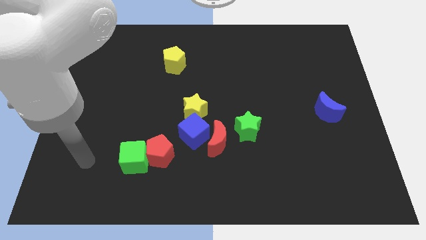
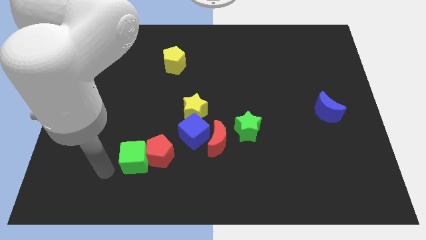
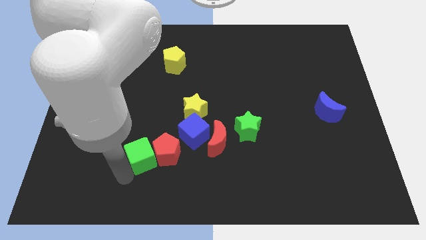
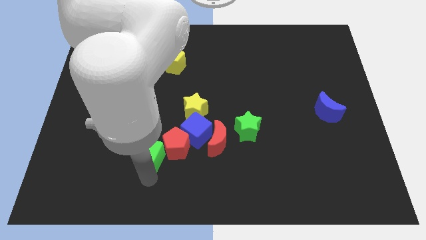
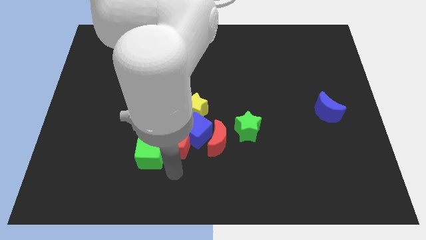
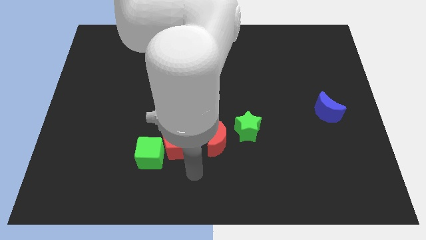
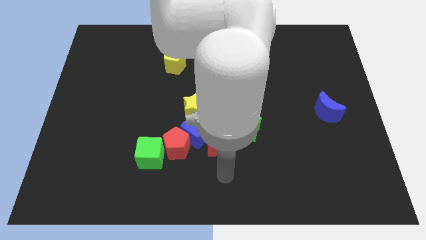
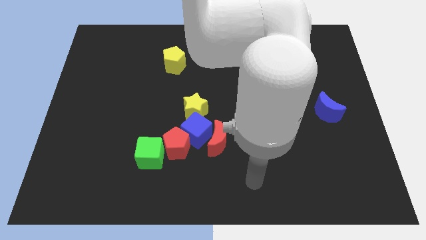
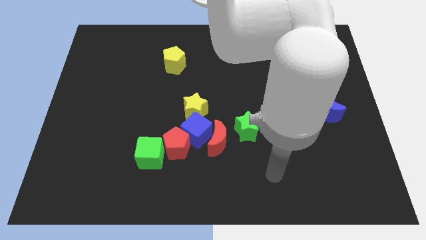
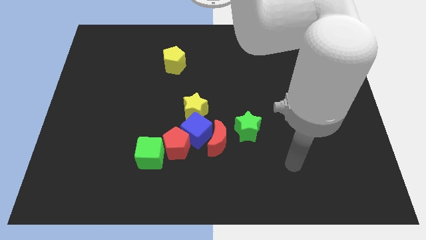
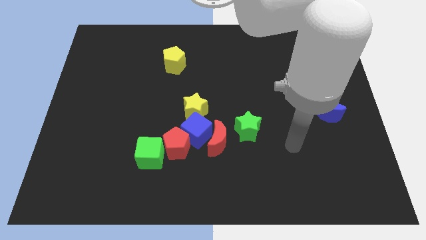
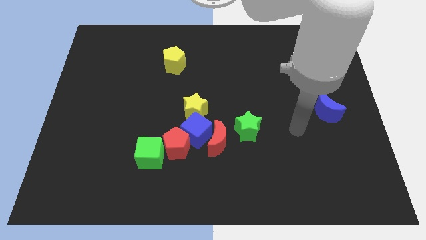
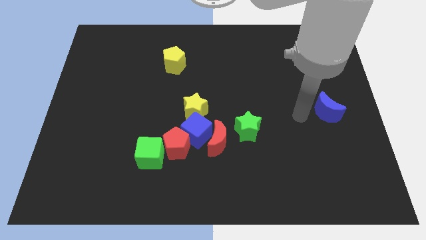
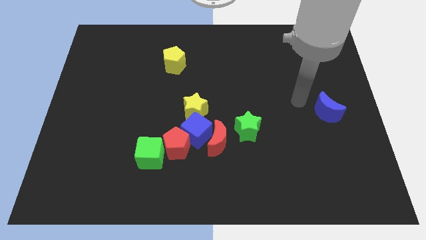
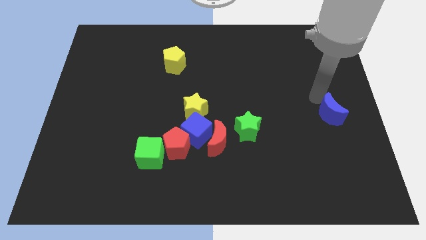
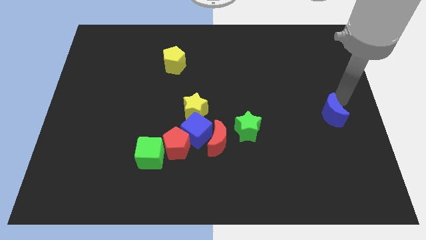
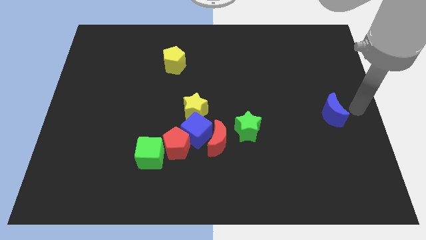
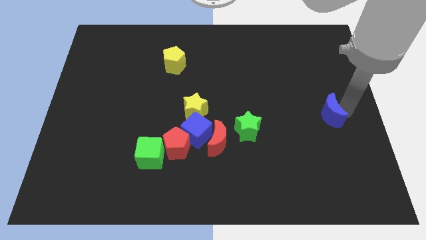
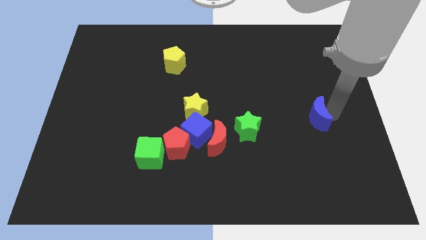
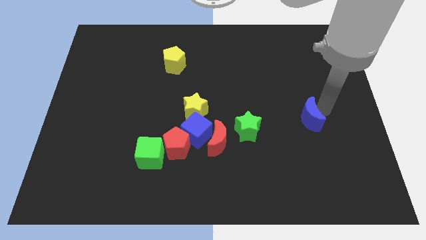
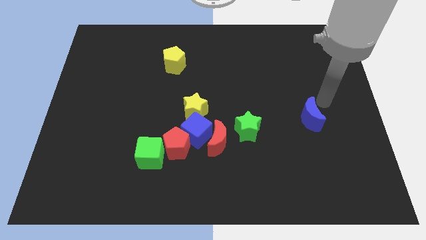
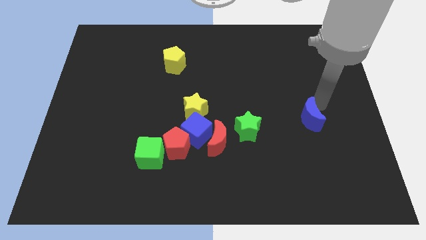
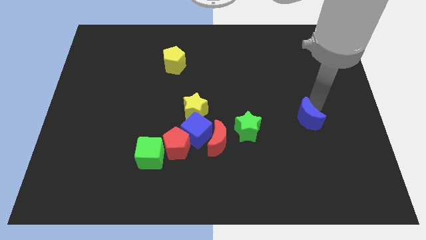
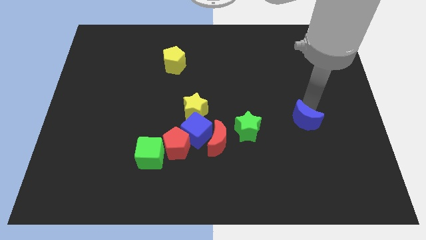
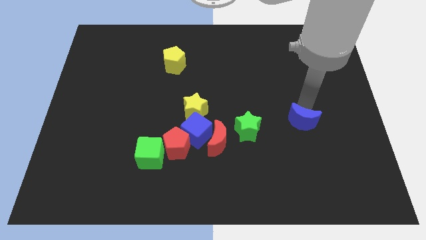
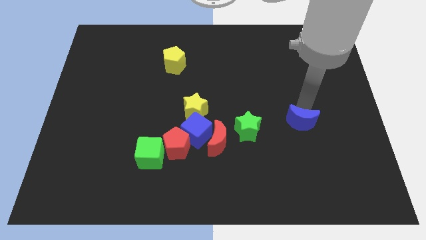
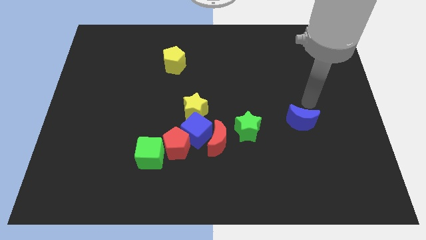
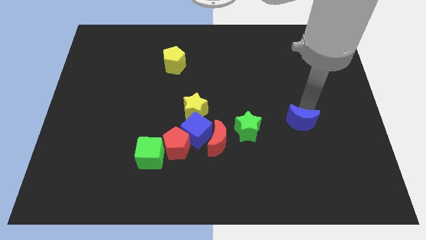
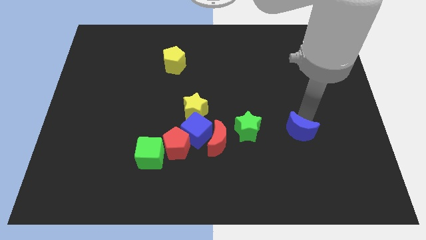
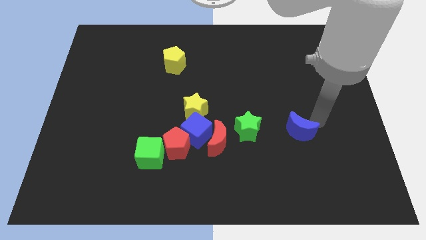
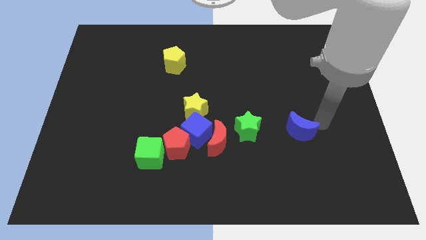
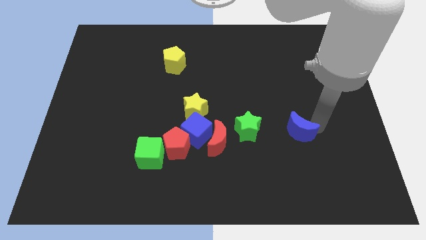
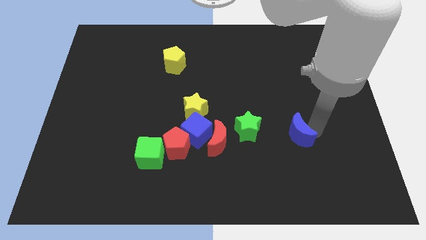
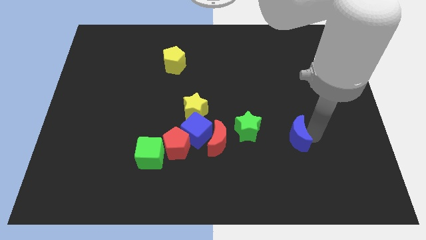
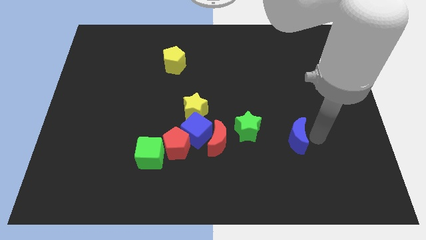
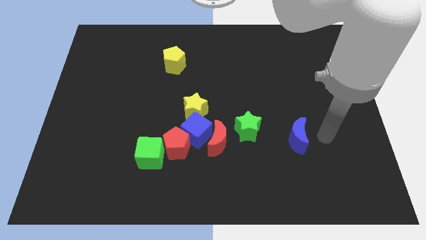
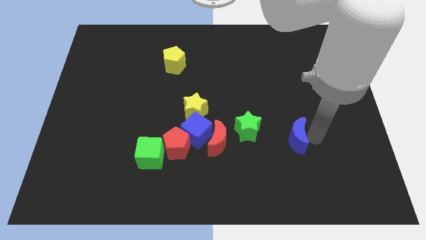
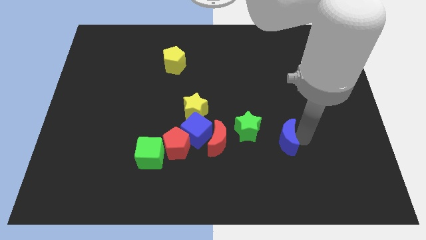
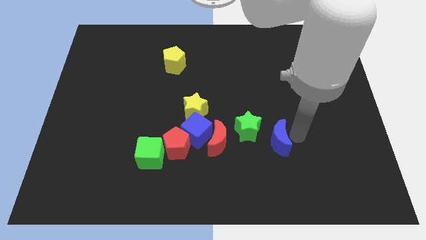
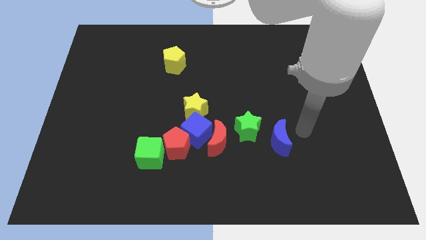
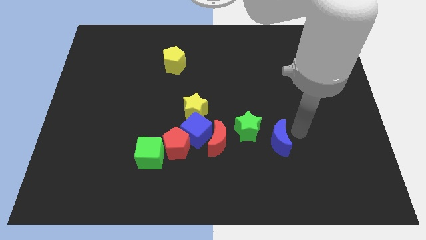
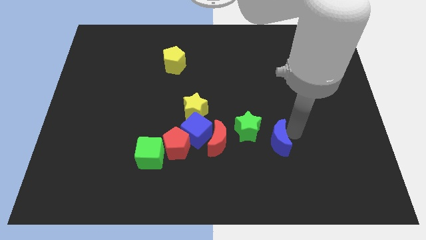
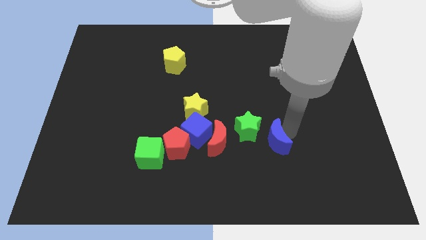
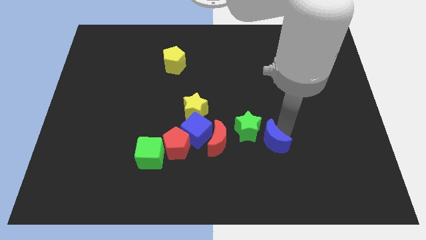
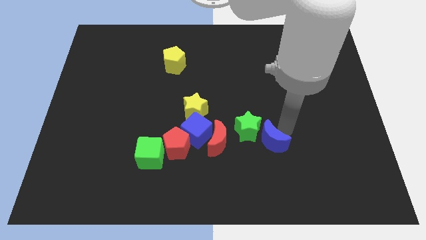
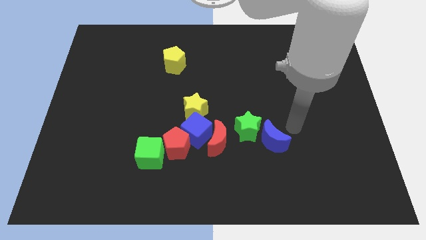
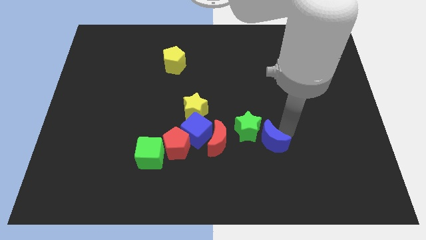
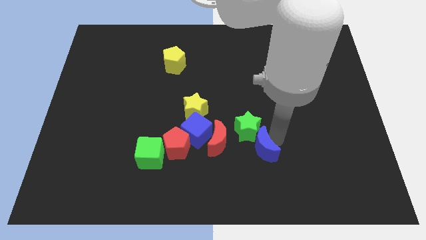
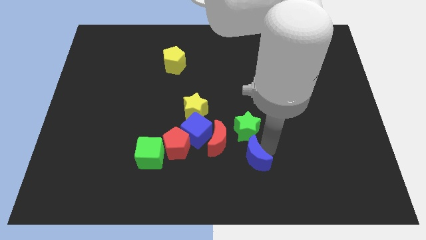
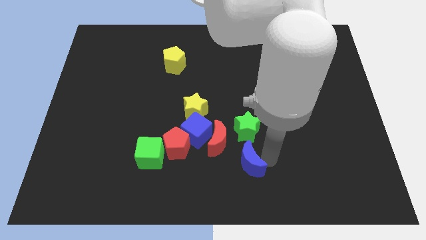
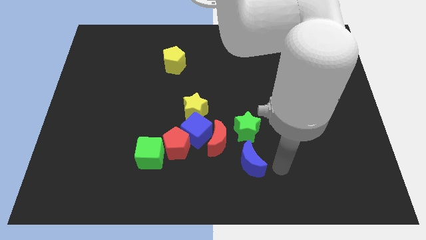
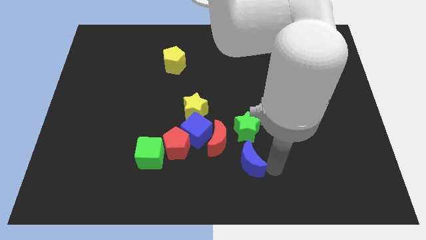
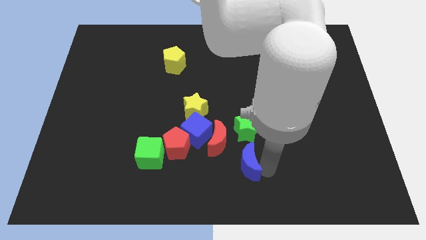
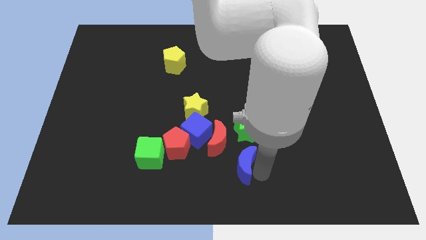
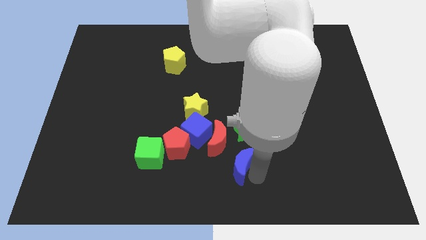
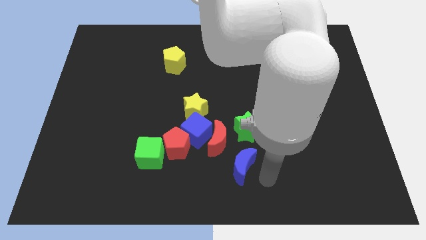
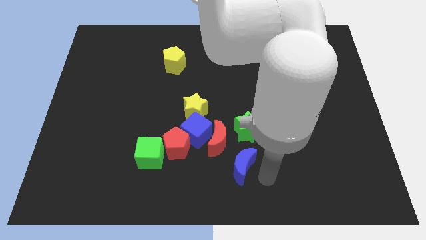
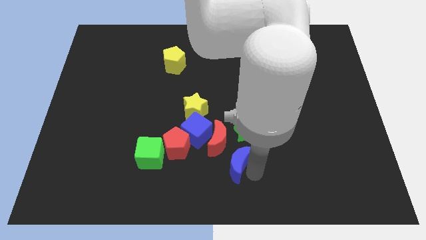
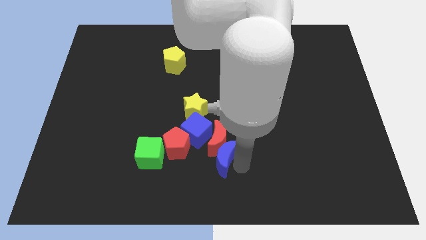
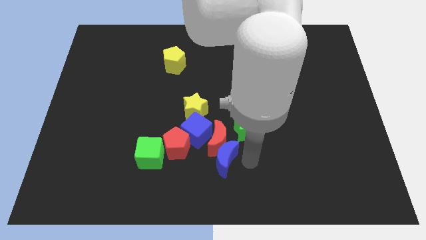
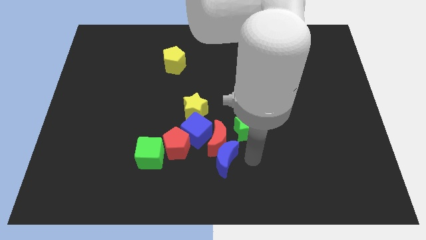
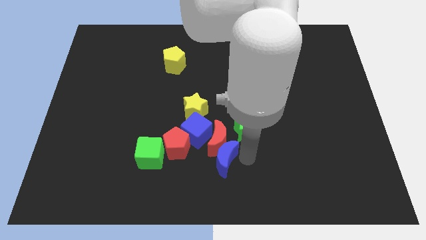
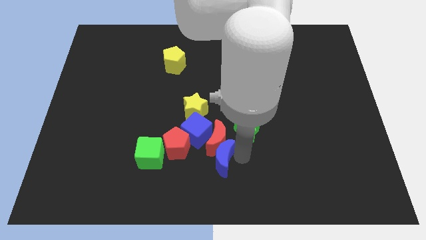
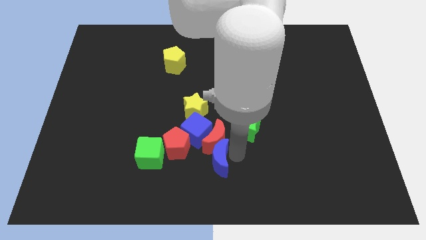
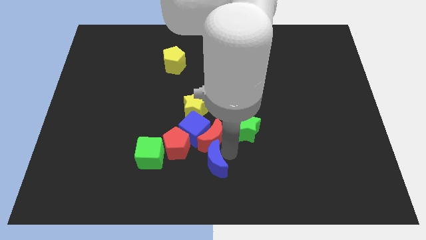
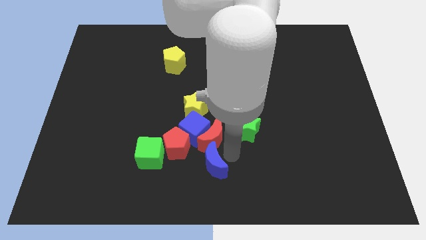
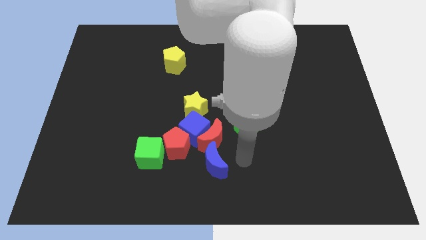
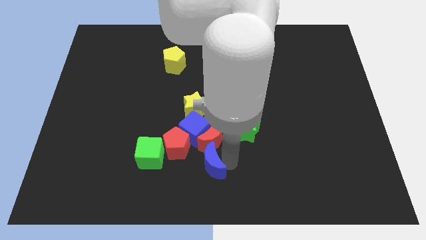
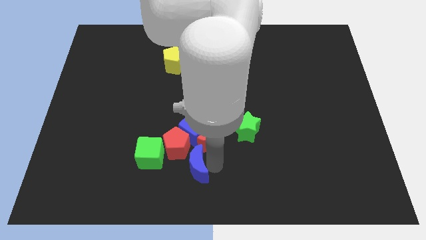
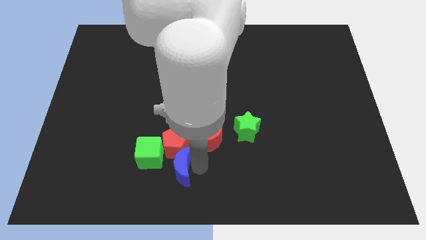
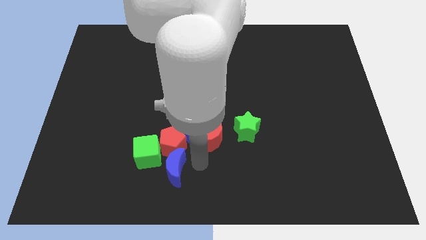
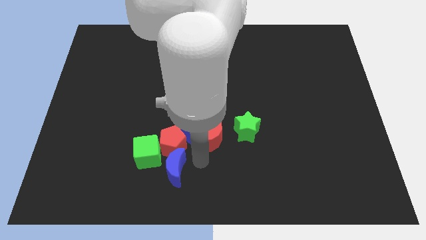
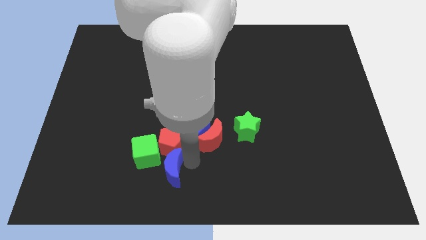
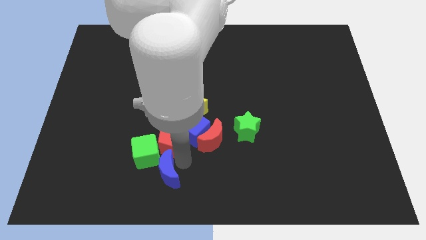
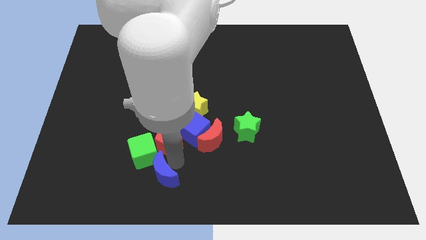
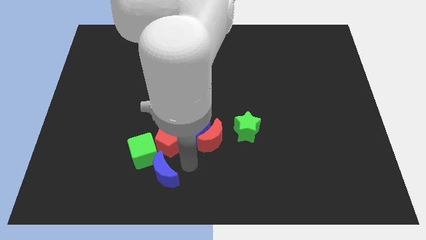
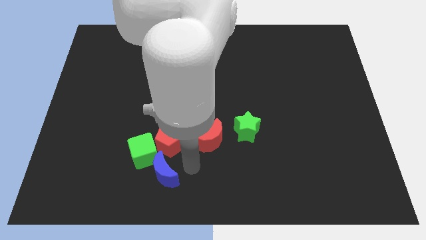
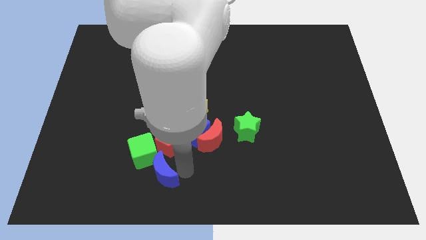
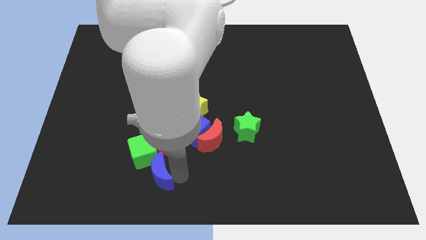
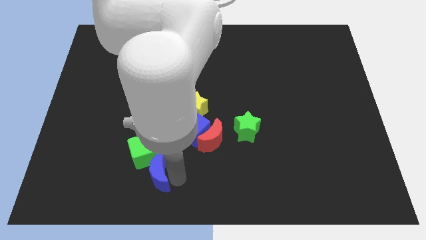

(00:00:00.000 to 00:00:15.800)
push the blue moon to the green cube
